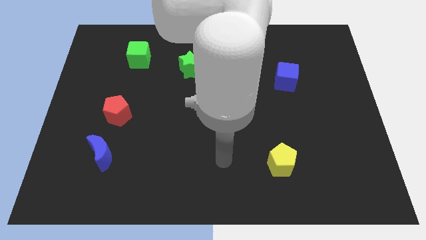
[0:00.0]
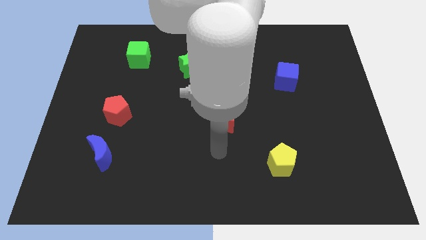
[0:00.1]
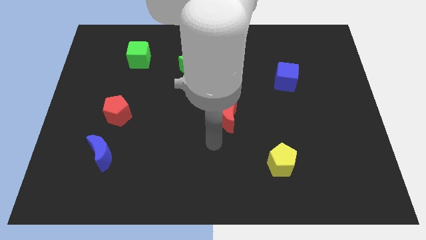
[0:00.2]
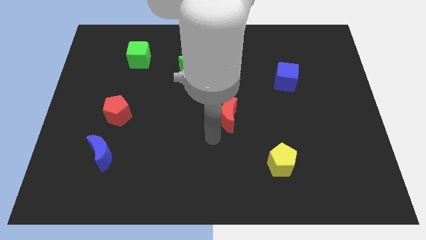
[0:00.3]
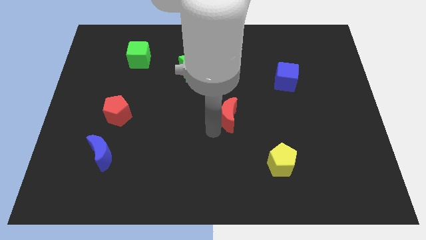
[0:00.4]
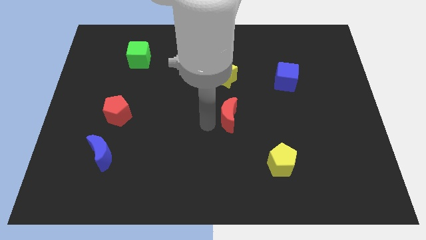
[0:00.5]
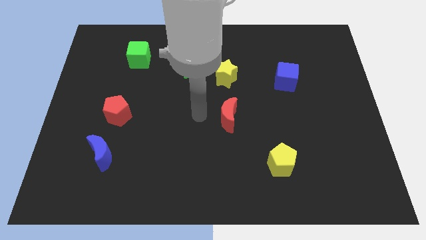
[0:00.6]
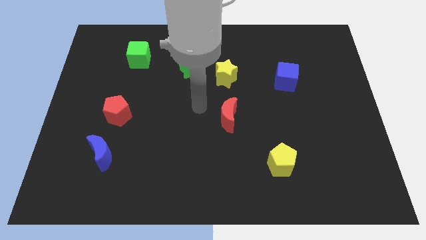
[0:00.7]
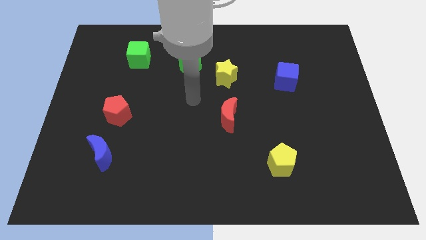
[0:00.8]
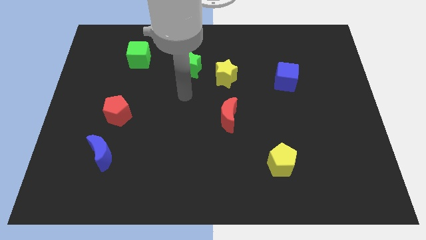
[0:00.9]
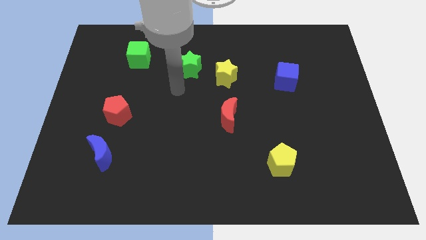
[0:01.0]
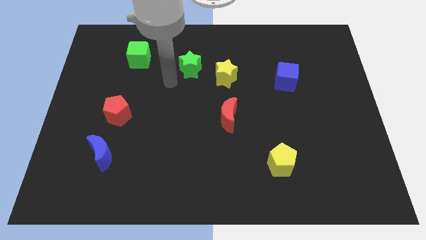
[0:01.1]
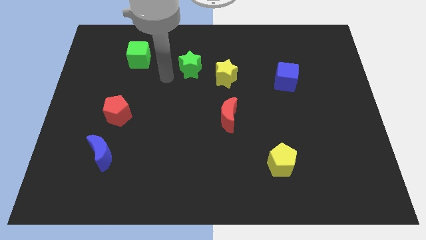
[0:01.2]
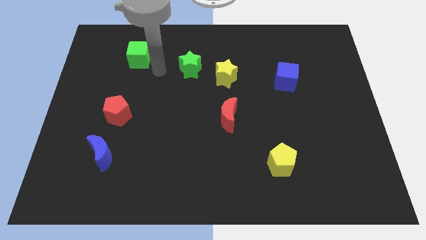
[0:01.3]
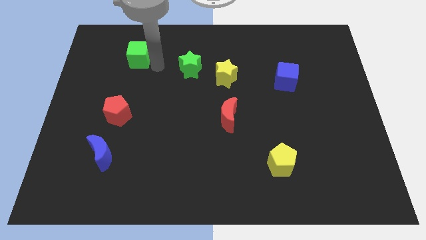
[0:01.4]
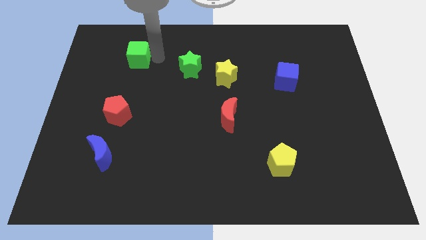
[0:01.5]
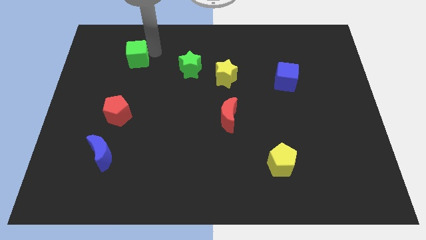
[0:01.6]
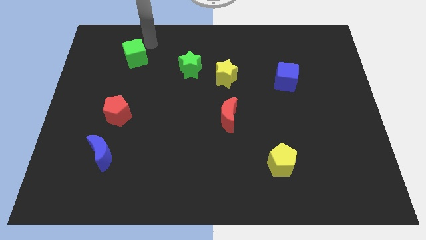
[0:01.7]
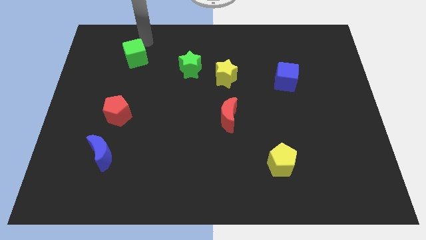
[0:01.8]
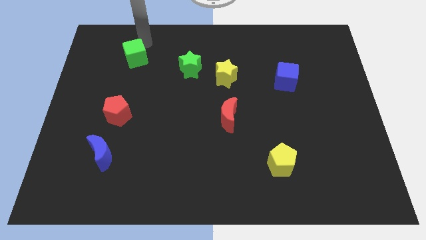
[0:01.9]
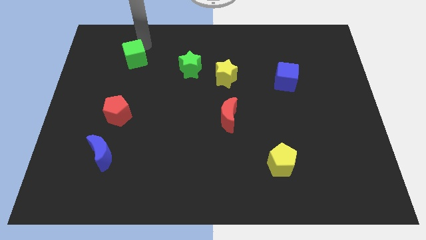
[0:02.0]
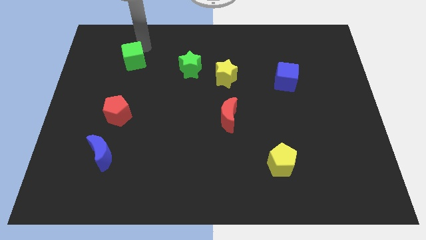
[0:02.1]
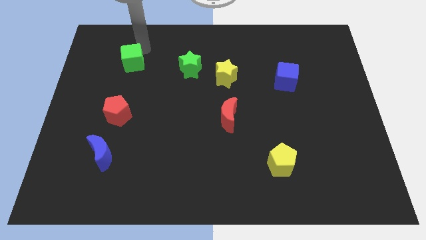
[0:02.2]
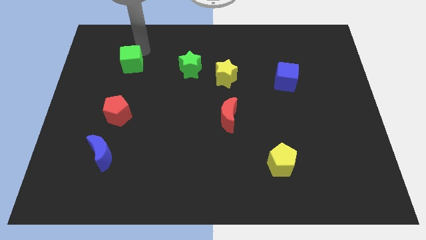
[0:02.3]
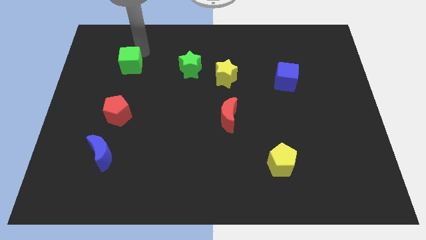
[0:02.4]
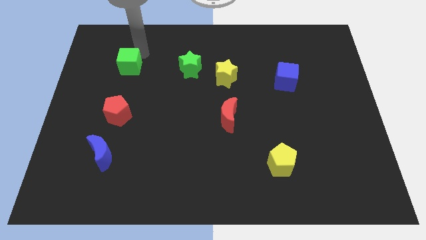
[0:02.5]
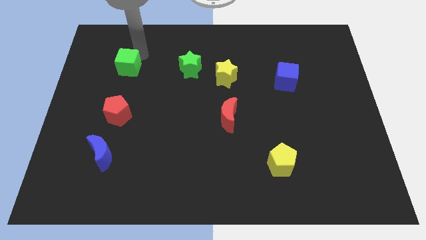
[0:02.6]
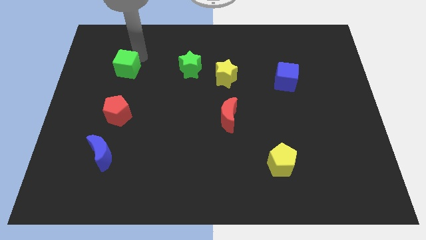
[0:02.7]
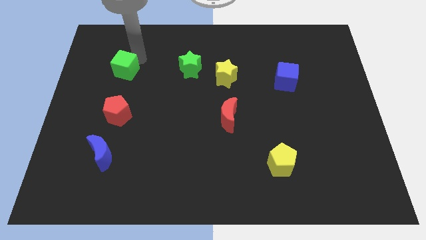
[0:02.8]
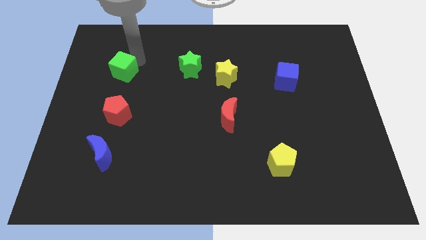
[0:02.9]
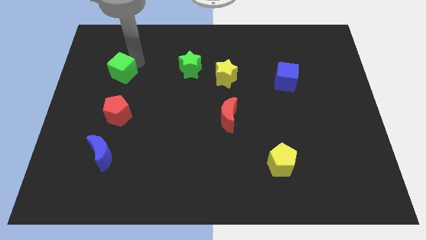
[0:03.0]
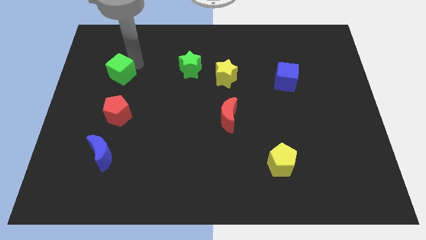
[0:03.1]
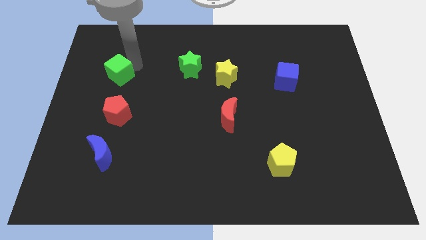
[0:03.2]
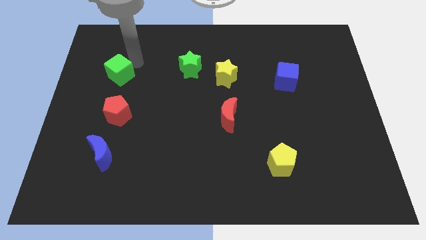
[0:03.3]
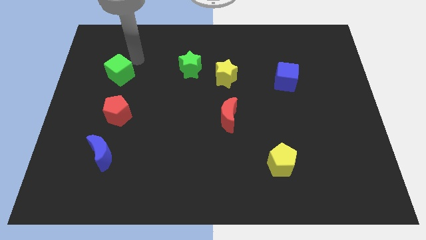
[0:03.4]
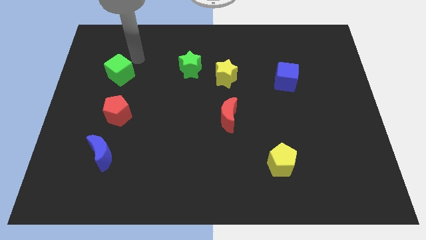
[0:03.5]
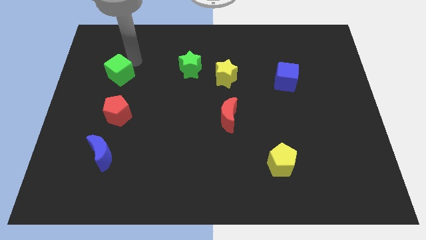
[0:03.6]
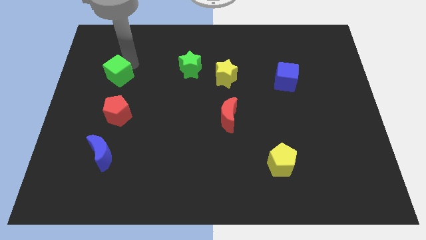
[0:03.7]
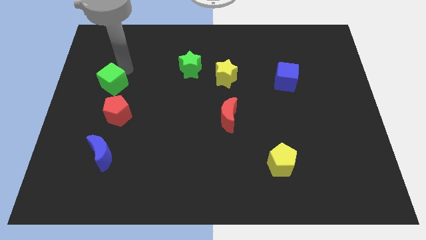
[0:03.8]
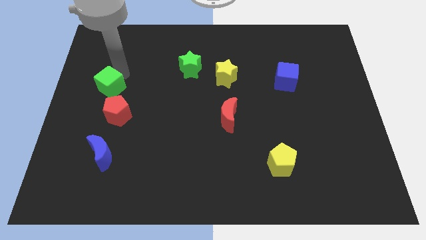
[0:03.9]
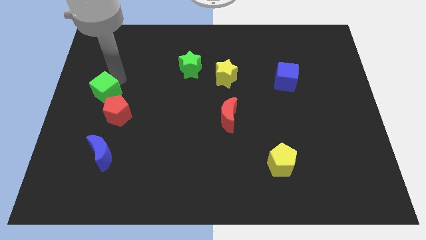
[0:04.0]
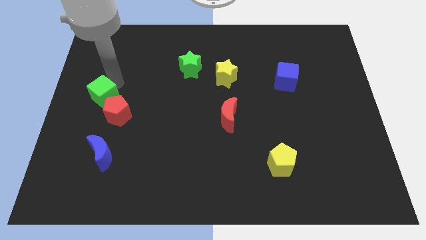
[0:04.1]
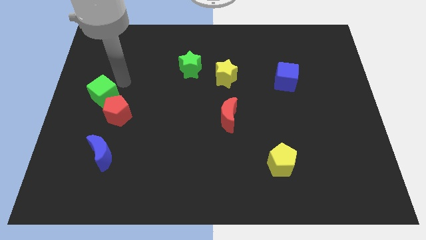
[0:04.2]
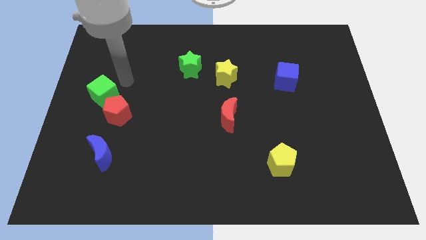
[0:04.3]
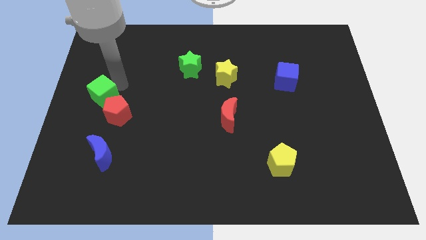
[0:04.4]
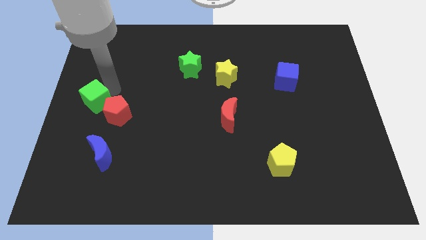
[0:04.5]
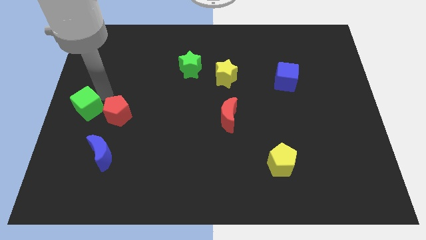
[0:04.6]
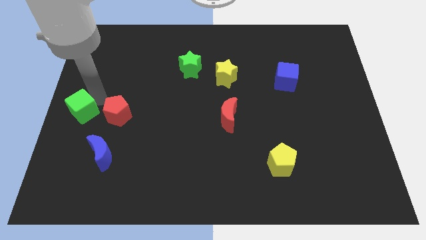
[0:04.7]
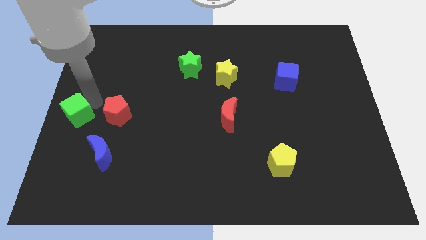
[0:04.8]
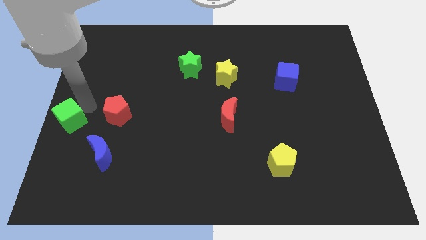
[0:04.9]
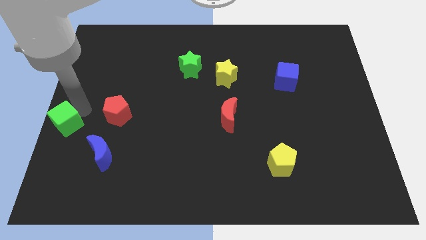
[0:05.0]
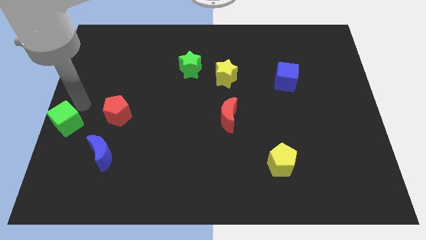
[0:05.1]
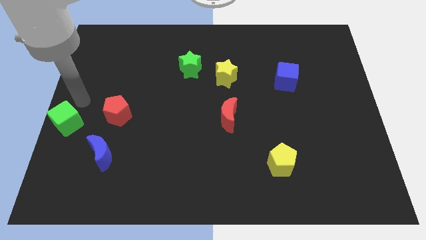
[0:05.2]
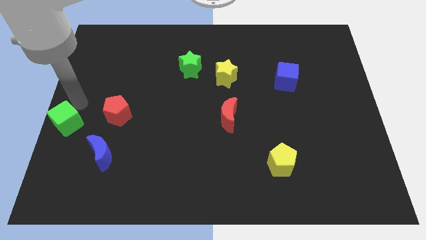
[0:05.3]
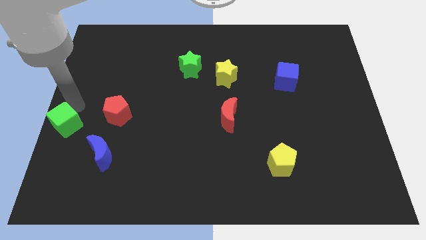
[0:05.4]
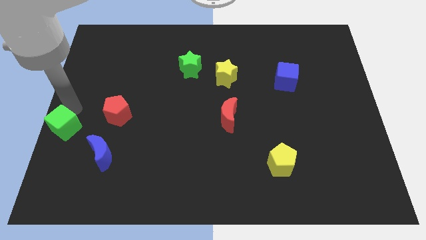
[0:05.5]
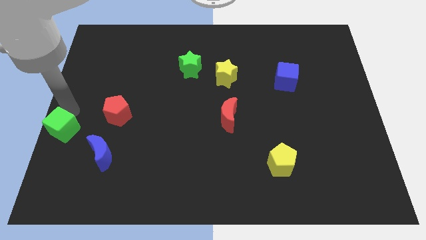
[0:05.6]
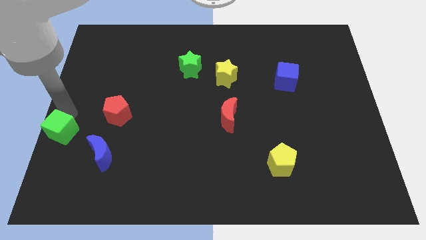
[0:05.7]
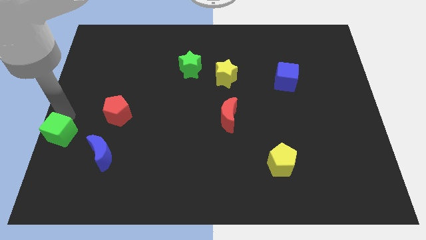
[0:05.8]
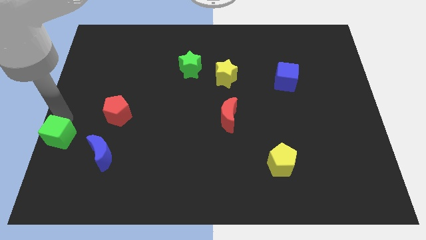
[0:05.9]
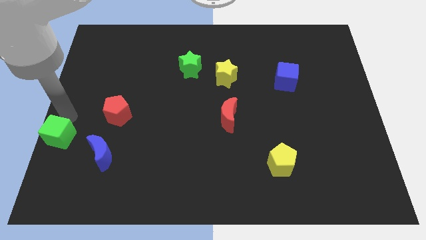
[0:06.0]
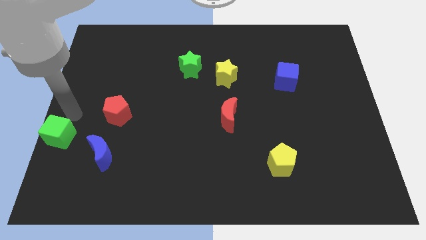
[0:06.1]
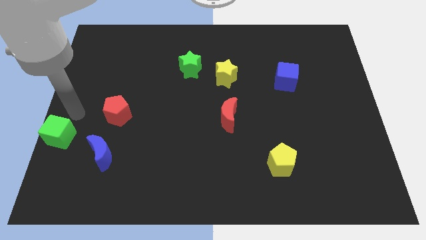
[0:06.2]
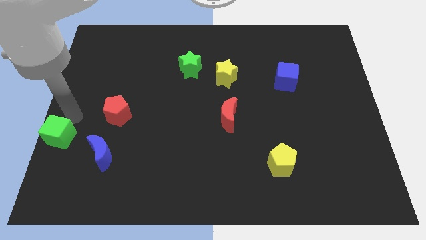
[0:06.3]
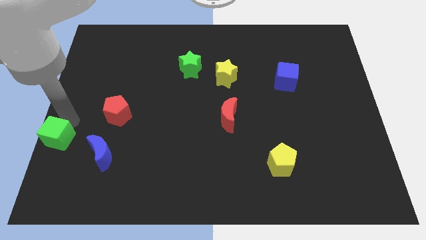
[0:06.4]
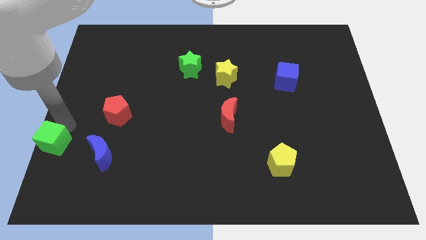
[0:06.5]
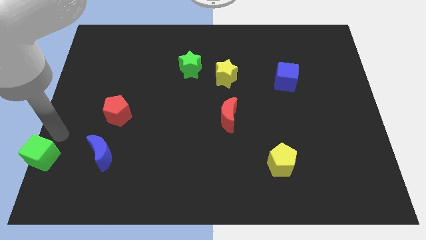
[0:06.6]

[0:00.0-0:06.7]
put the green cube to the bottom left of the board
